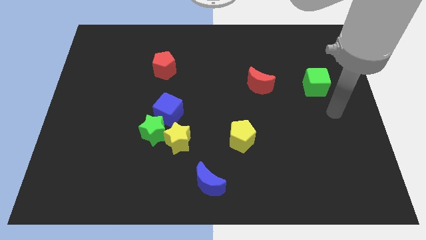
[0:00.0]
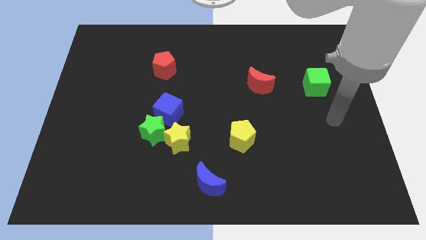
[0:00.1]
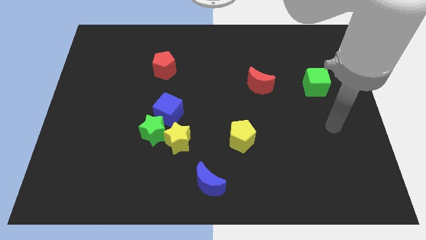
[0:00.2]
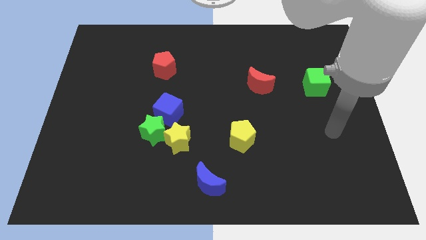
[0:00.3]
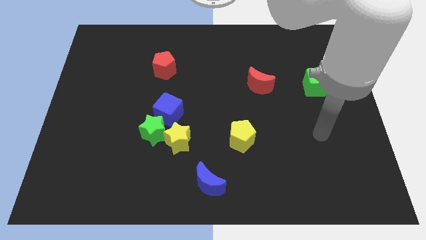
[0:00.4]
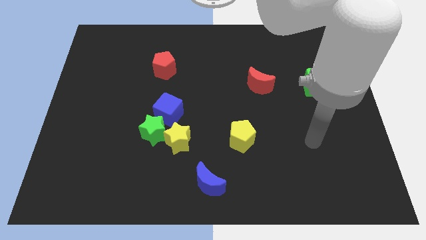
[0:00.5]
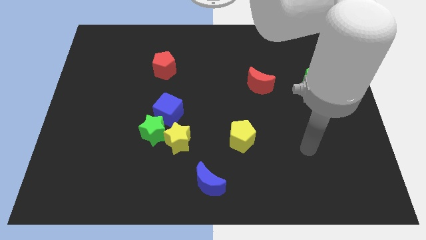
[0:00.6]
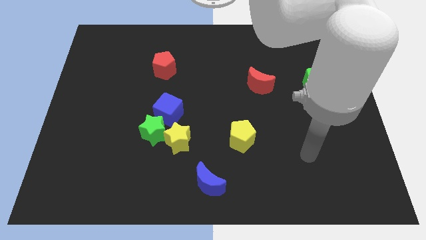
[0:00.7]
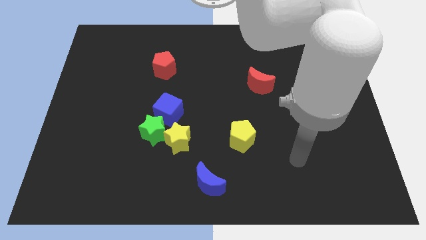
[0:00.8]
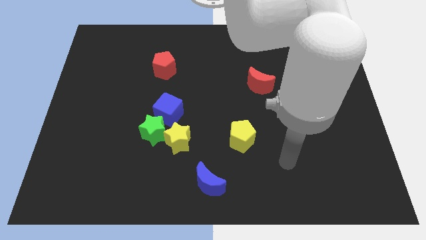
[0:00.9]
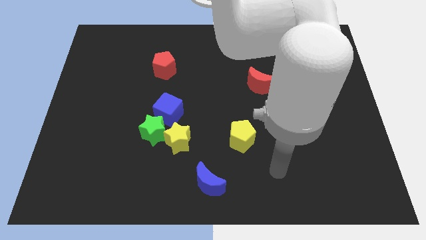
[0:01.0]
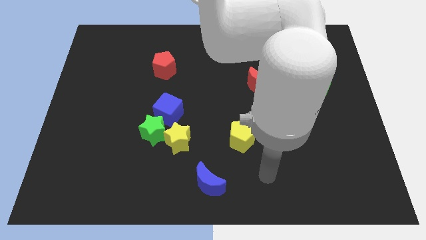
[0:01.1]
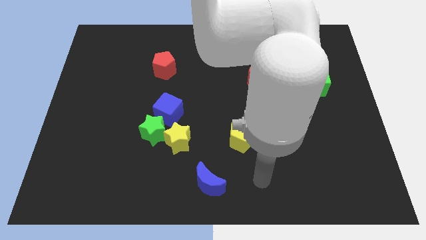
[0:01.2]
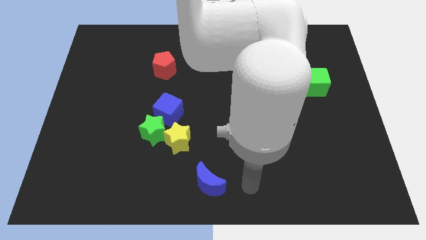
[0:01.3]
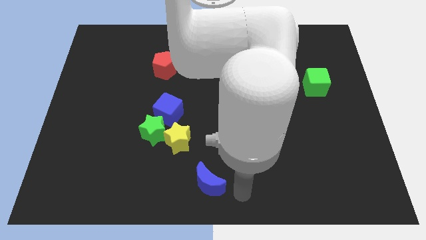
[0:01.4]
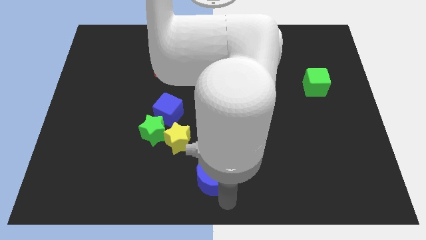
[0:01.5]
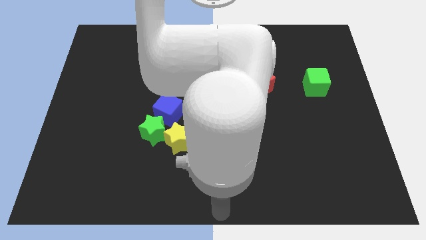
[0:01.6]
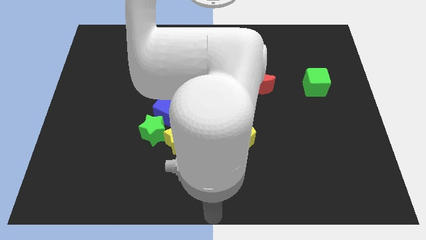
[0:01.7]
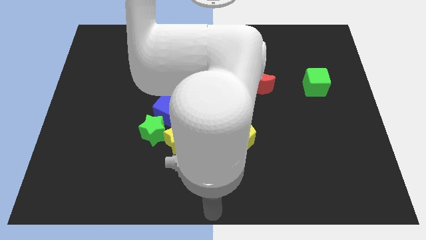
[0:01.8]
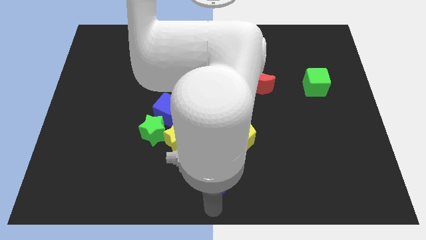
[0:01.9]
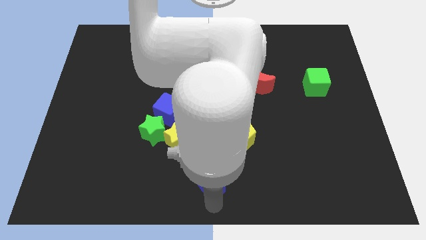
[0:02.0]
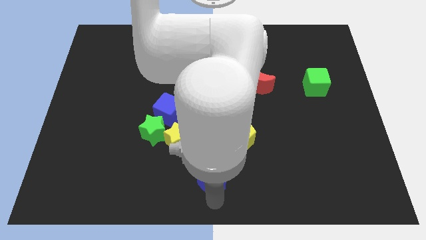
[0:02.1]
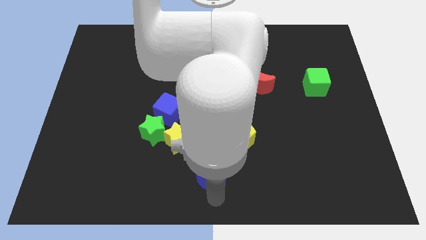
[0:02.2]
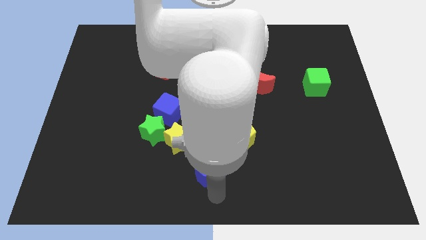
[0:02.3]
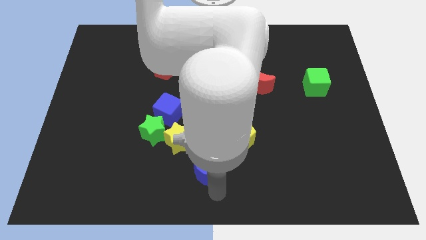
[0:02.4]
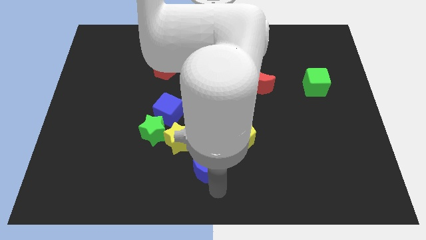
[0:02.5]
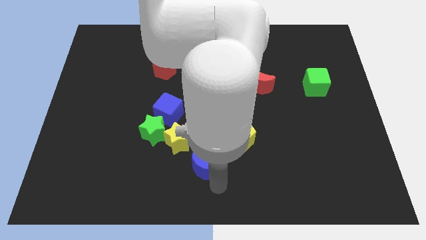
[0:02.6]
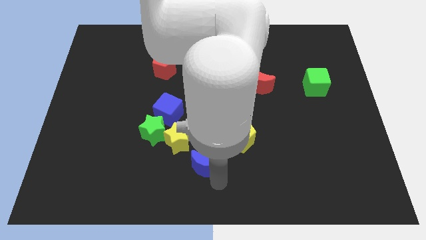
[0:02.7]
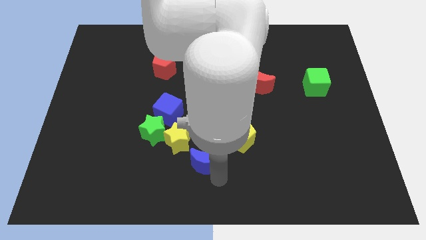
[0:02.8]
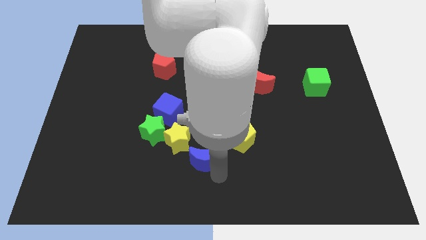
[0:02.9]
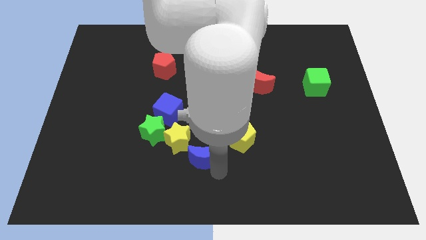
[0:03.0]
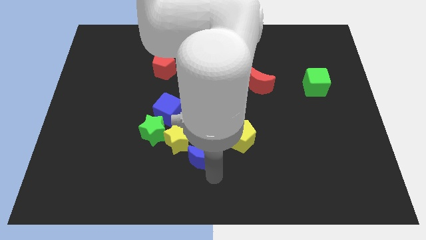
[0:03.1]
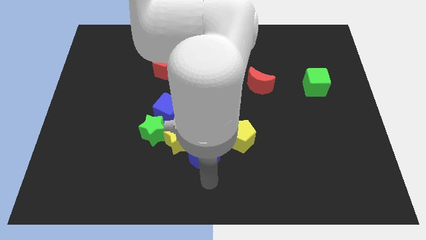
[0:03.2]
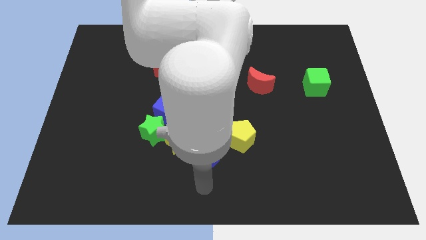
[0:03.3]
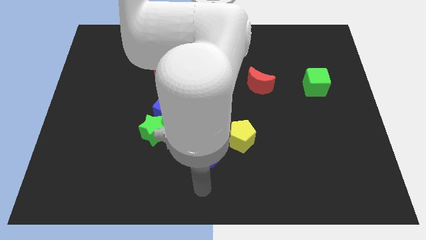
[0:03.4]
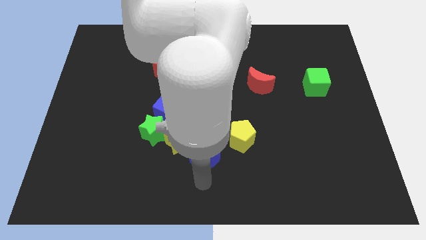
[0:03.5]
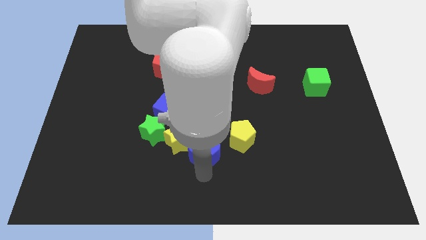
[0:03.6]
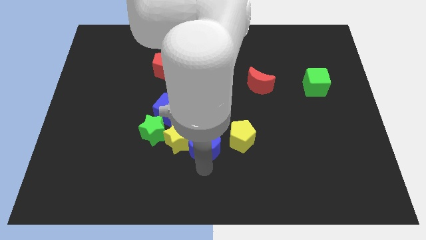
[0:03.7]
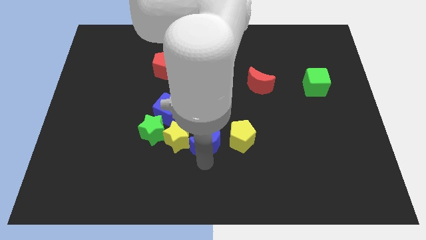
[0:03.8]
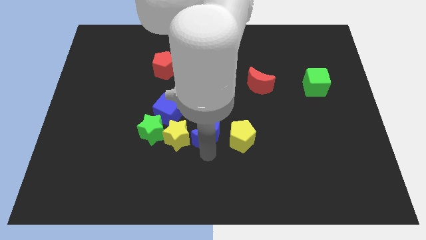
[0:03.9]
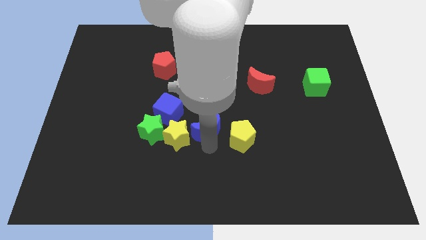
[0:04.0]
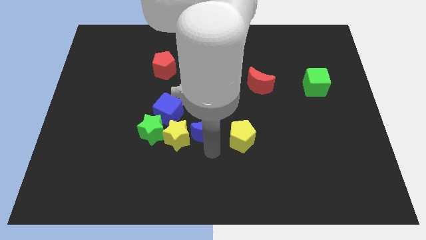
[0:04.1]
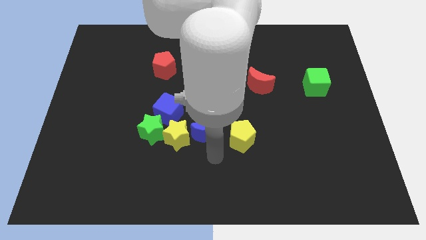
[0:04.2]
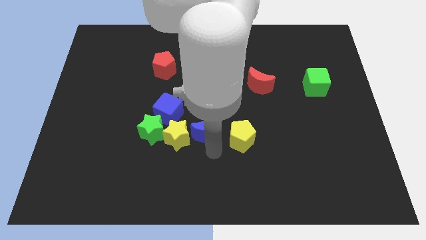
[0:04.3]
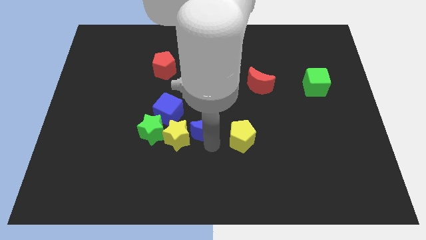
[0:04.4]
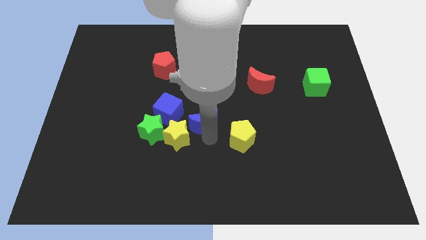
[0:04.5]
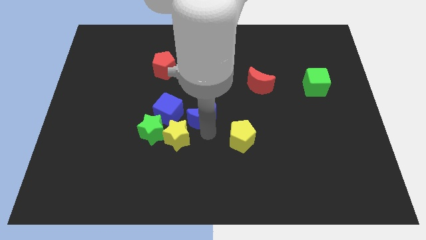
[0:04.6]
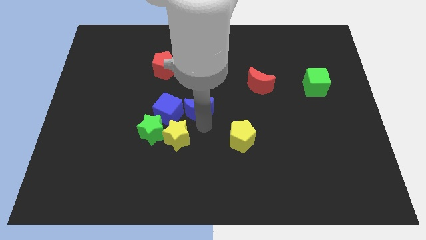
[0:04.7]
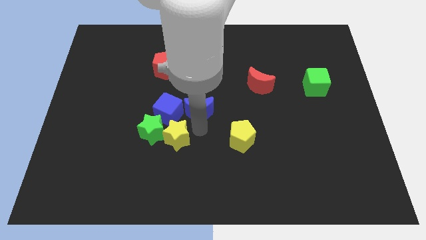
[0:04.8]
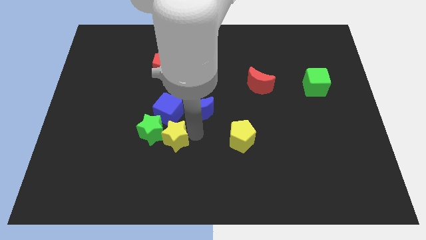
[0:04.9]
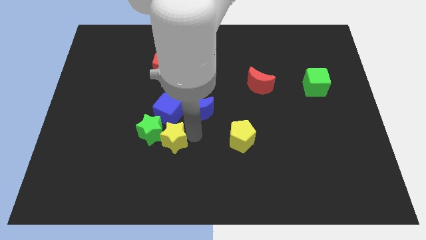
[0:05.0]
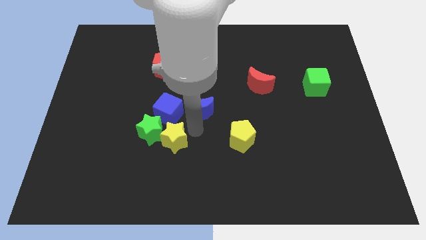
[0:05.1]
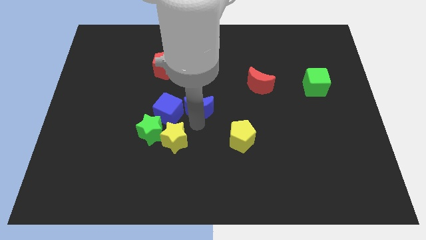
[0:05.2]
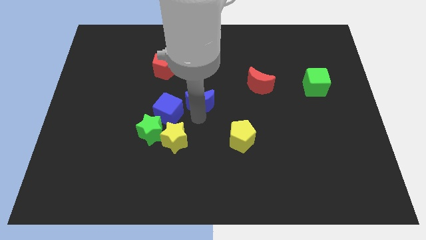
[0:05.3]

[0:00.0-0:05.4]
push the blue moon up

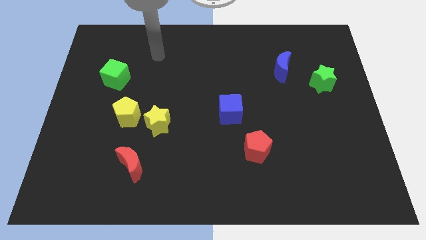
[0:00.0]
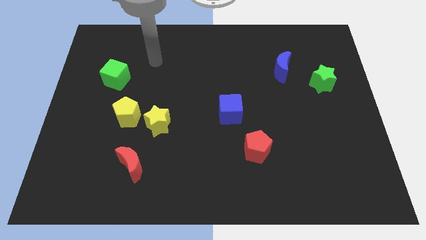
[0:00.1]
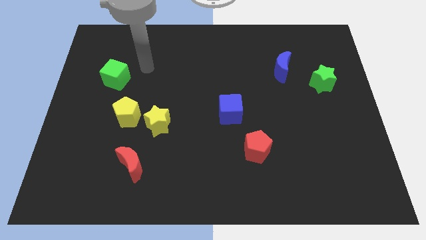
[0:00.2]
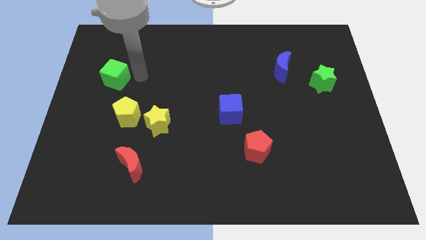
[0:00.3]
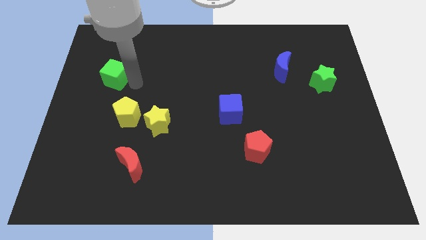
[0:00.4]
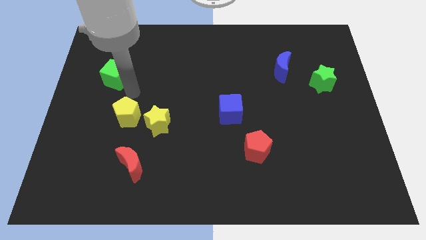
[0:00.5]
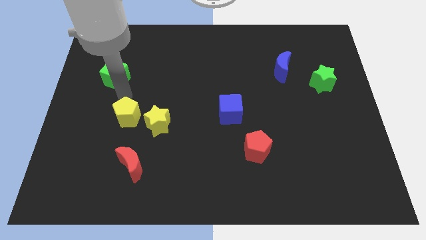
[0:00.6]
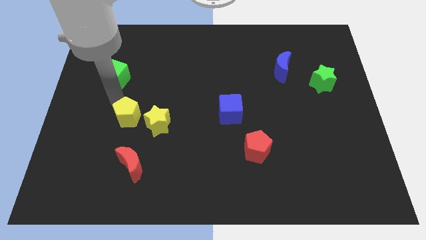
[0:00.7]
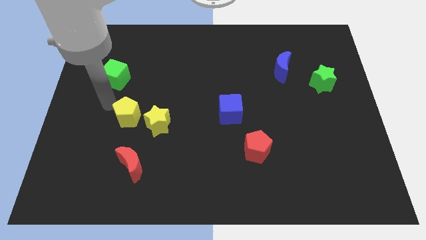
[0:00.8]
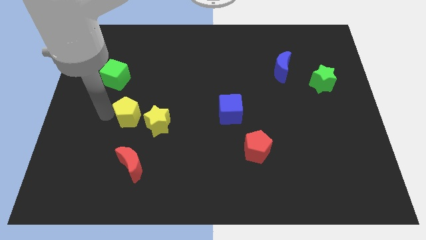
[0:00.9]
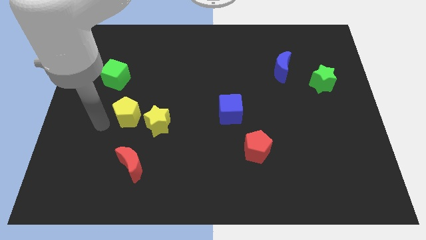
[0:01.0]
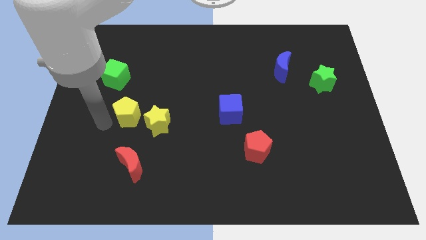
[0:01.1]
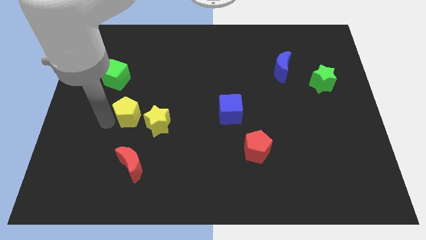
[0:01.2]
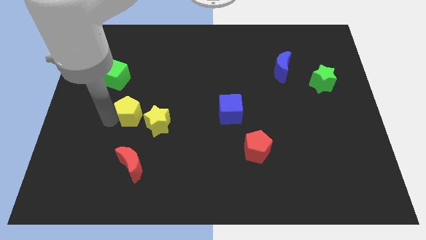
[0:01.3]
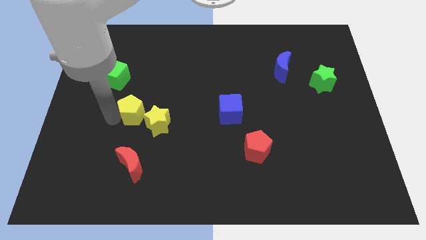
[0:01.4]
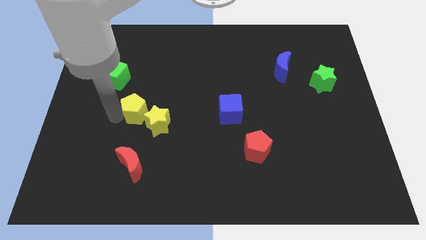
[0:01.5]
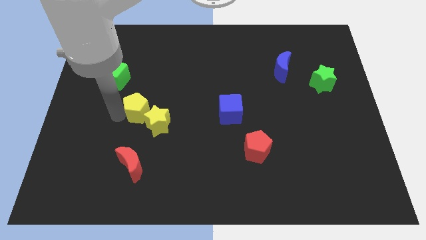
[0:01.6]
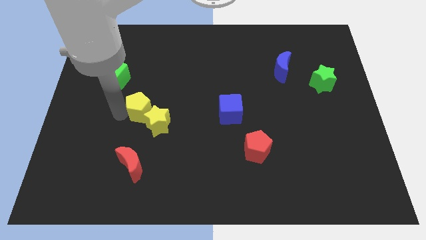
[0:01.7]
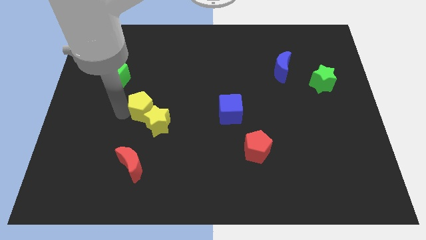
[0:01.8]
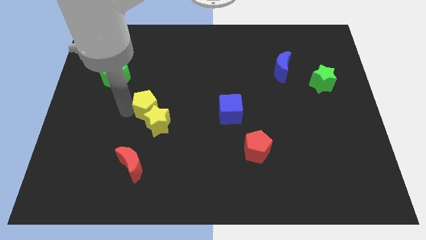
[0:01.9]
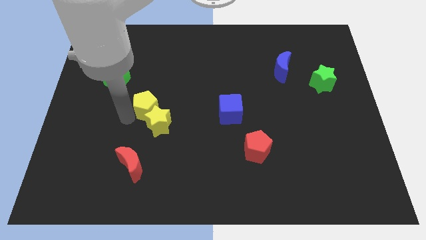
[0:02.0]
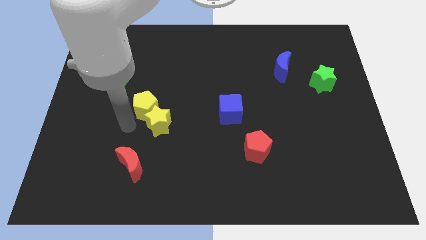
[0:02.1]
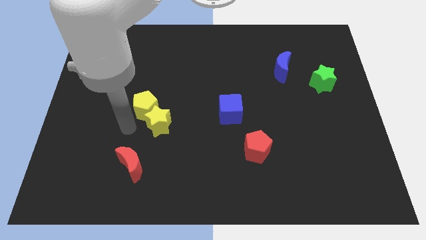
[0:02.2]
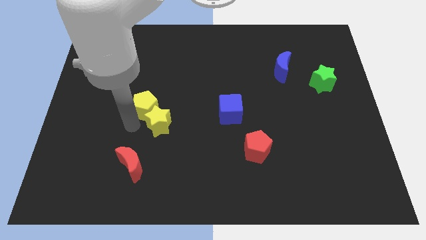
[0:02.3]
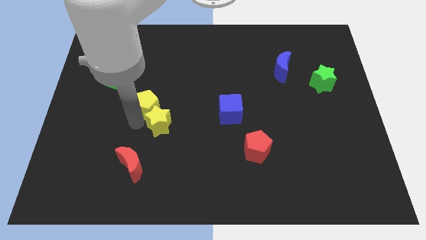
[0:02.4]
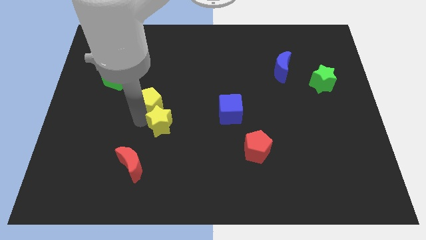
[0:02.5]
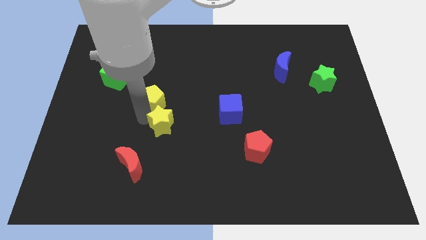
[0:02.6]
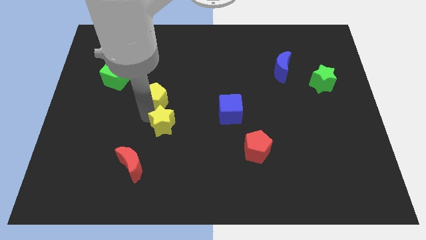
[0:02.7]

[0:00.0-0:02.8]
slightly slide the yellow pentagon up and to the right diagonally
